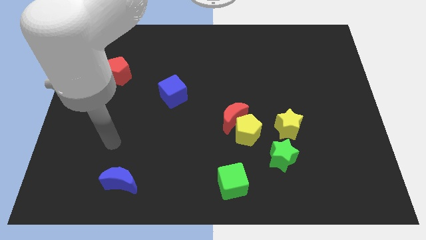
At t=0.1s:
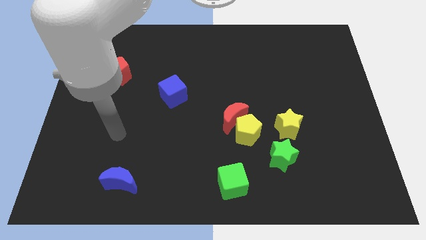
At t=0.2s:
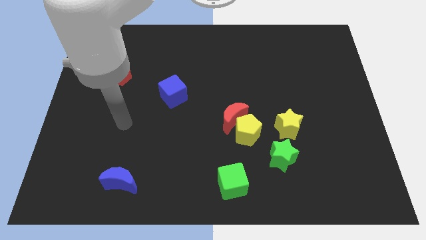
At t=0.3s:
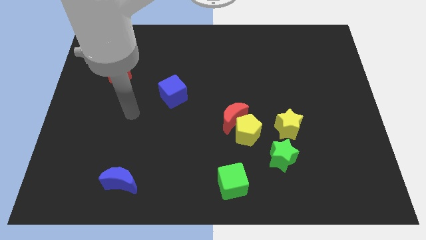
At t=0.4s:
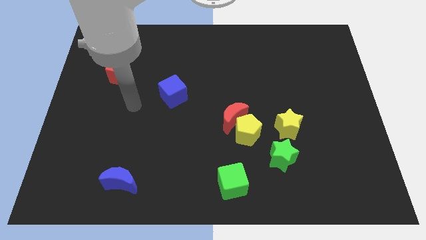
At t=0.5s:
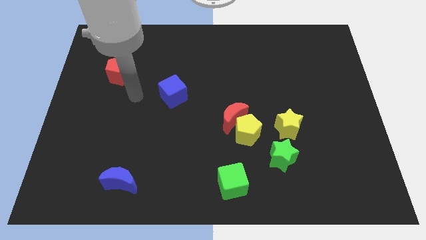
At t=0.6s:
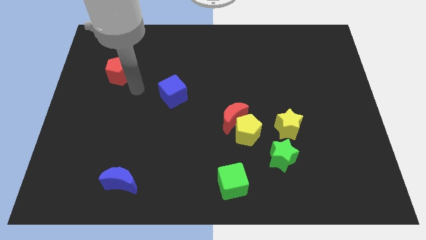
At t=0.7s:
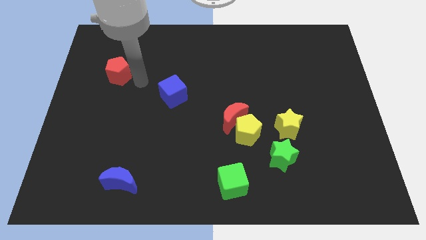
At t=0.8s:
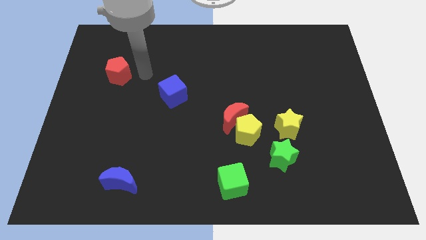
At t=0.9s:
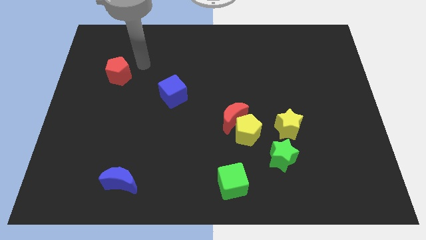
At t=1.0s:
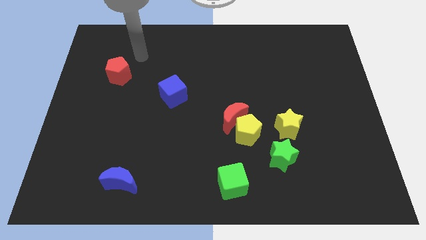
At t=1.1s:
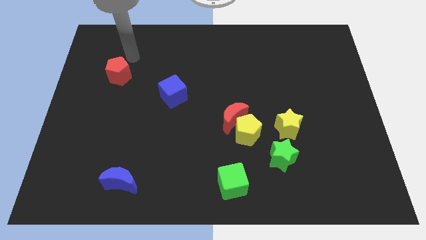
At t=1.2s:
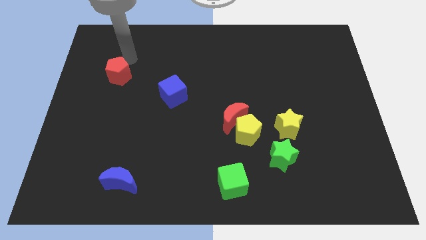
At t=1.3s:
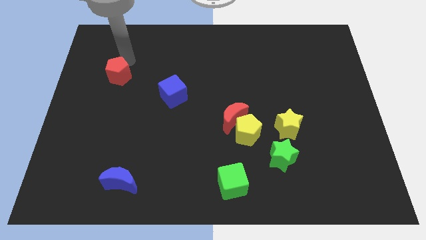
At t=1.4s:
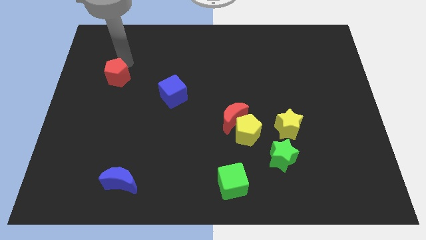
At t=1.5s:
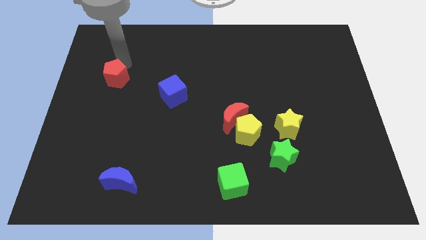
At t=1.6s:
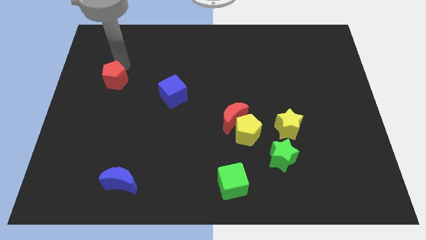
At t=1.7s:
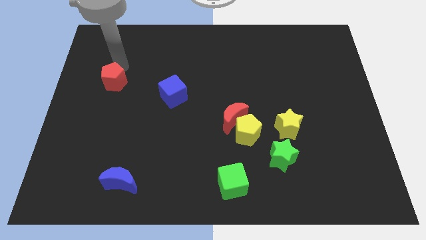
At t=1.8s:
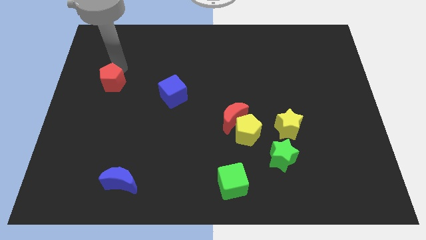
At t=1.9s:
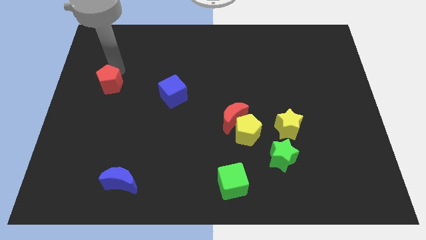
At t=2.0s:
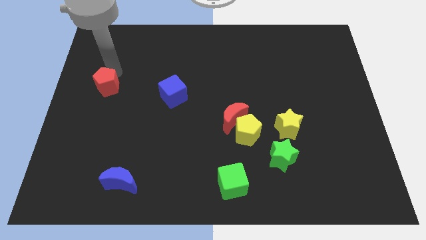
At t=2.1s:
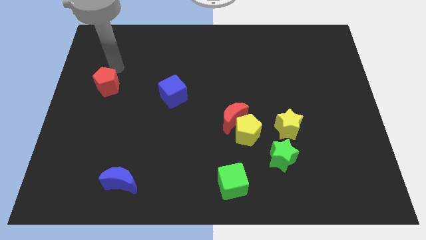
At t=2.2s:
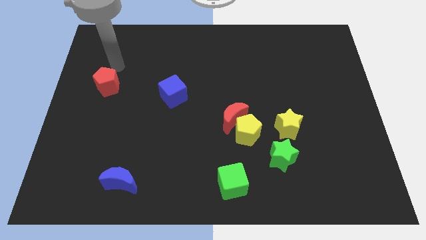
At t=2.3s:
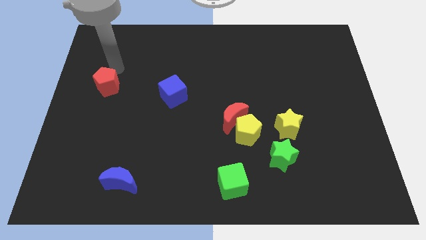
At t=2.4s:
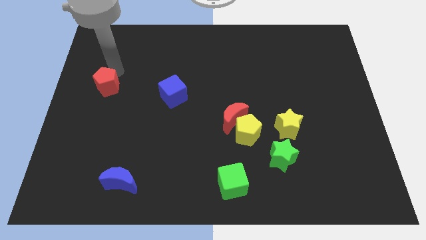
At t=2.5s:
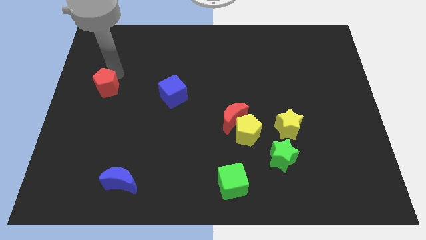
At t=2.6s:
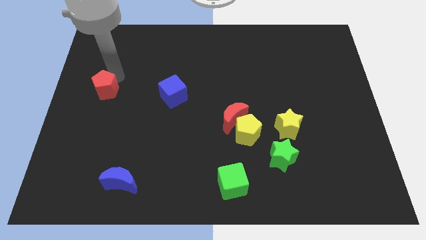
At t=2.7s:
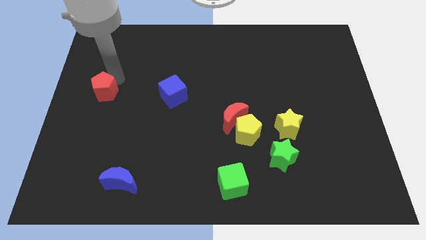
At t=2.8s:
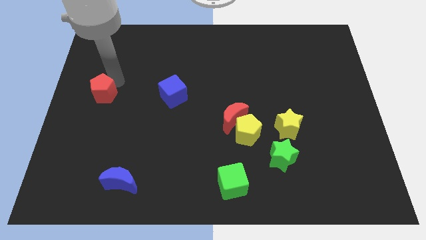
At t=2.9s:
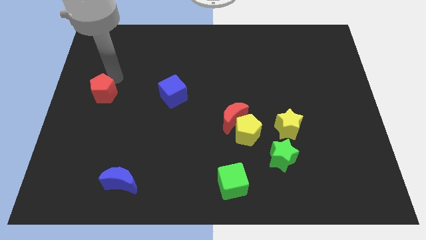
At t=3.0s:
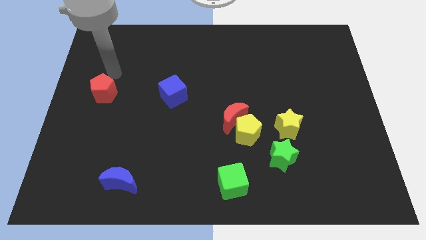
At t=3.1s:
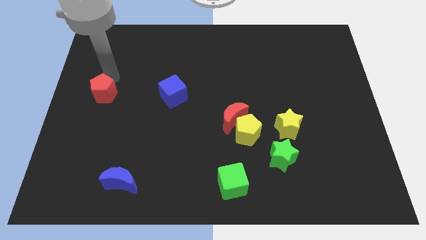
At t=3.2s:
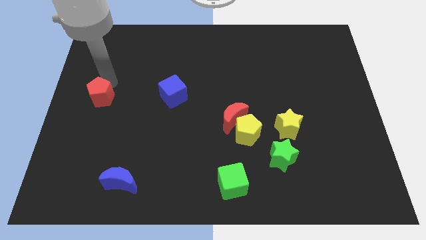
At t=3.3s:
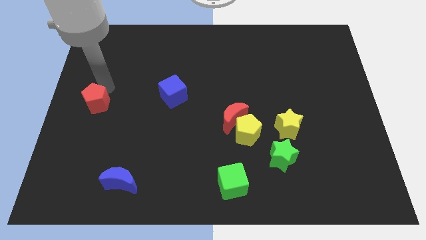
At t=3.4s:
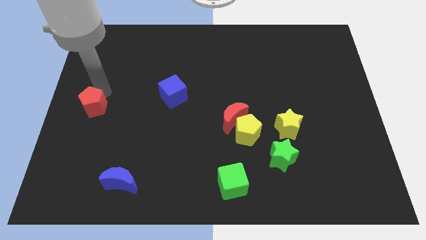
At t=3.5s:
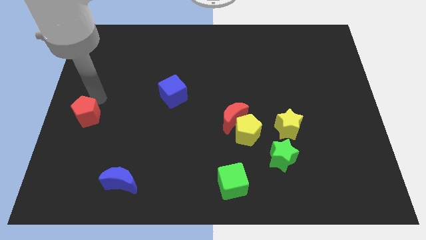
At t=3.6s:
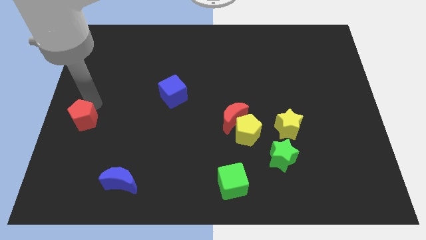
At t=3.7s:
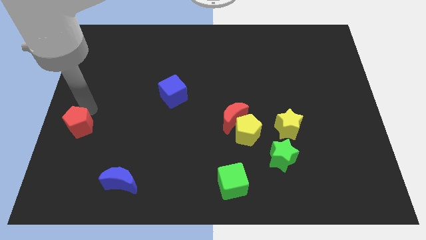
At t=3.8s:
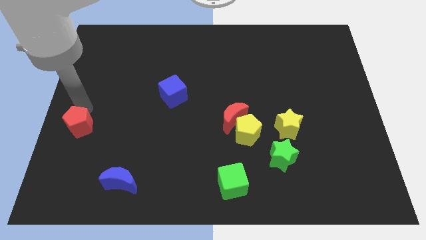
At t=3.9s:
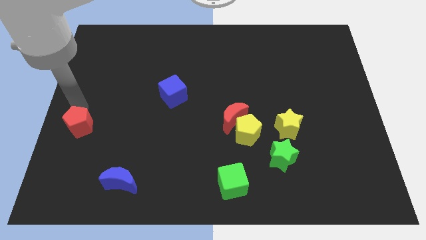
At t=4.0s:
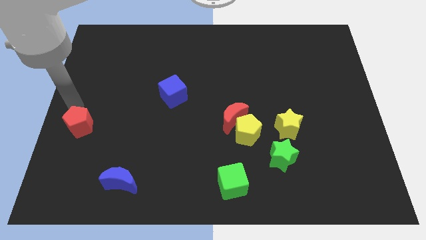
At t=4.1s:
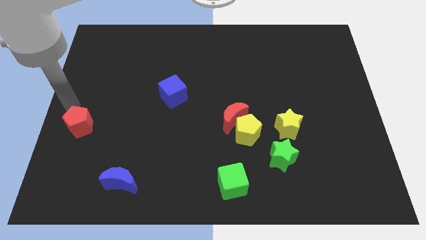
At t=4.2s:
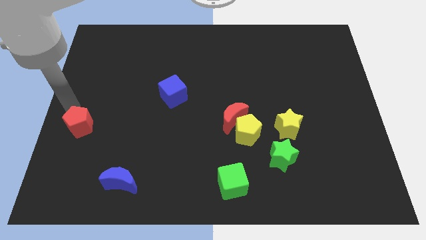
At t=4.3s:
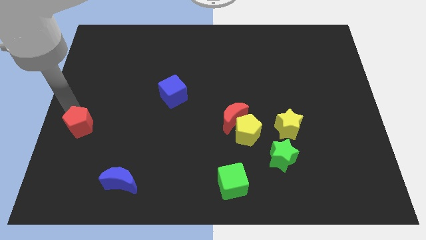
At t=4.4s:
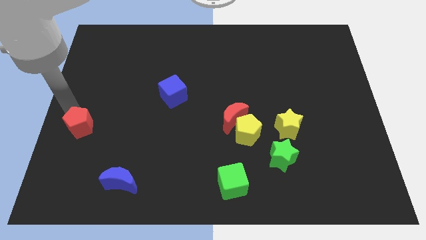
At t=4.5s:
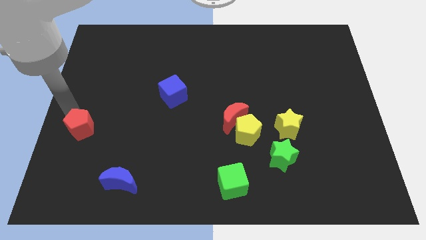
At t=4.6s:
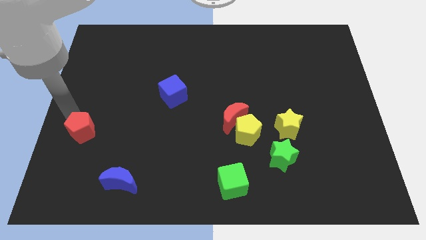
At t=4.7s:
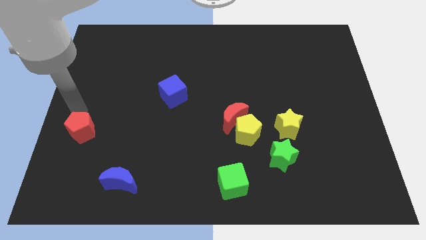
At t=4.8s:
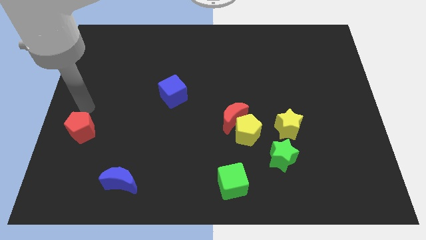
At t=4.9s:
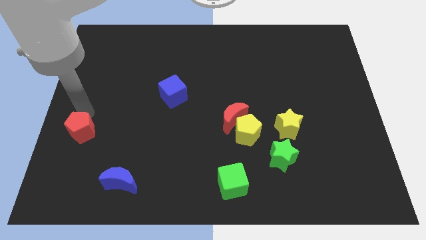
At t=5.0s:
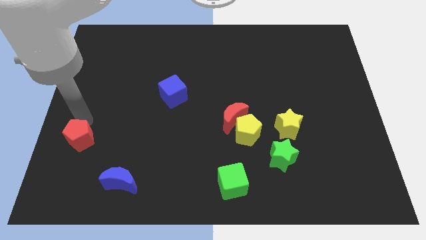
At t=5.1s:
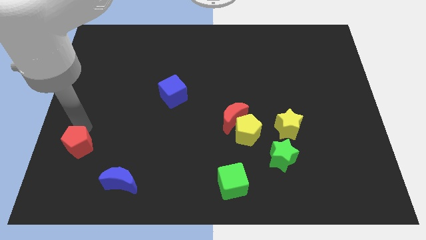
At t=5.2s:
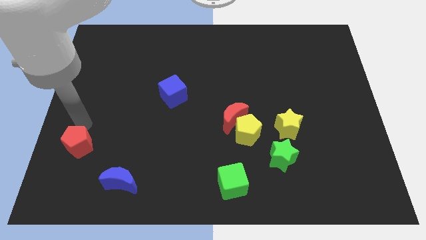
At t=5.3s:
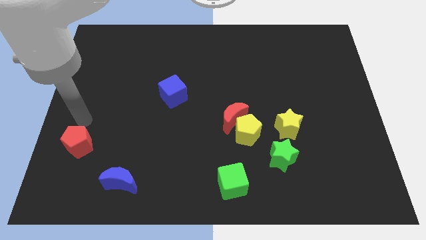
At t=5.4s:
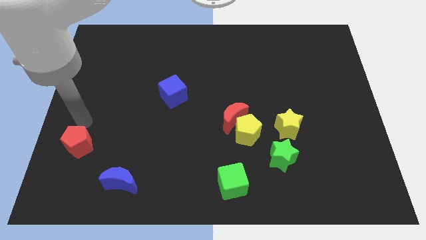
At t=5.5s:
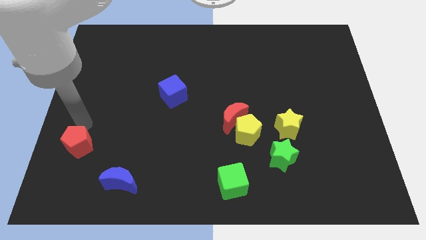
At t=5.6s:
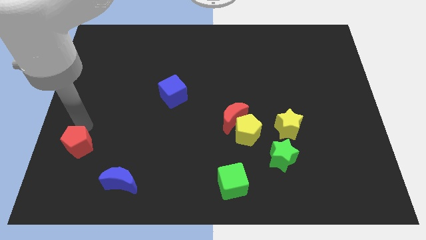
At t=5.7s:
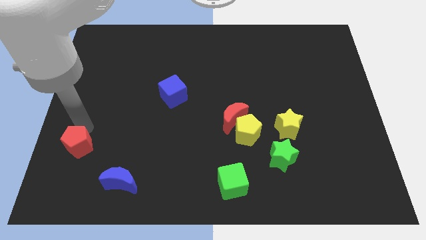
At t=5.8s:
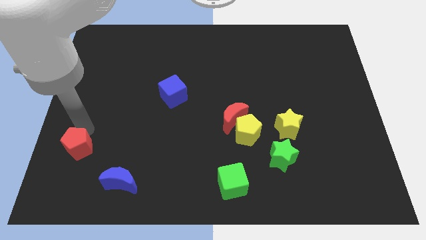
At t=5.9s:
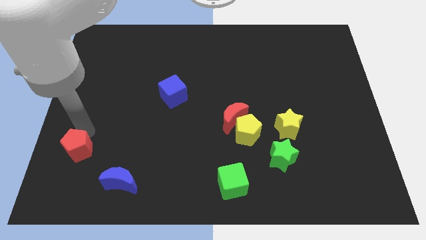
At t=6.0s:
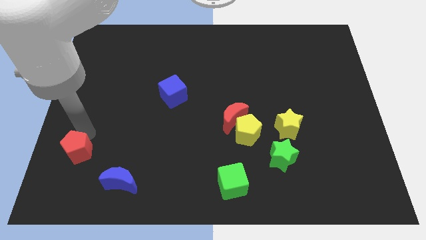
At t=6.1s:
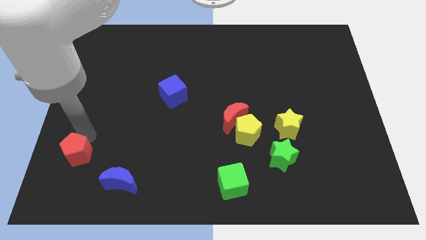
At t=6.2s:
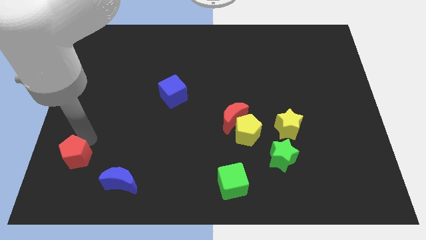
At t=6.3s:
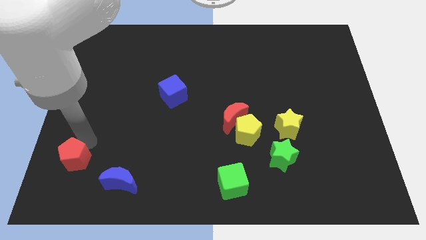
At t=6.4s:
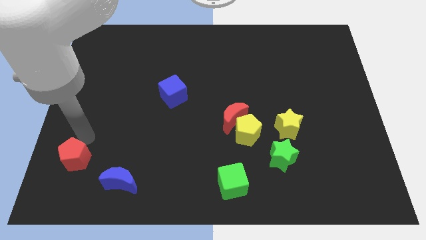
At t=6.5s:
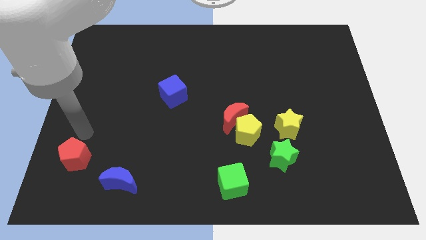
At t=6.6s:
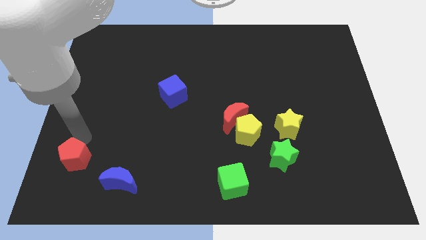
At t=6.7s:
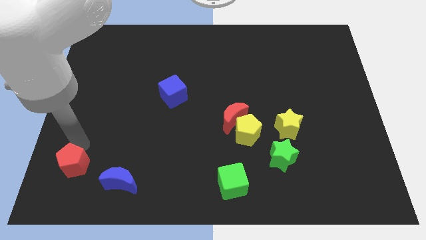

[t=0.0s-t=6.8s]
slide the red pentagon just left of the blue moon

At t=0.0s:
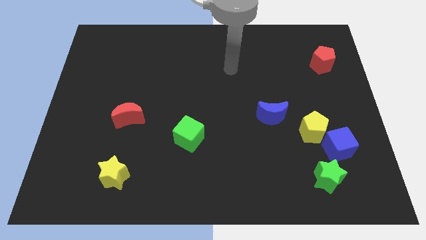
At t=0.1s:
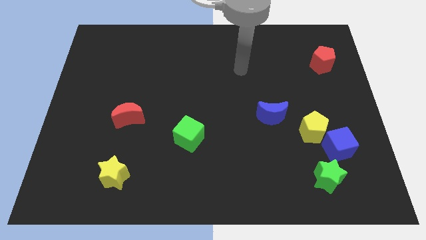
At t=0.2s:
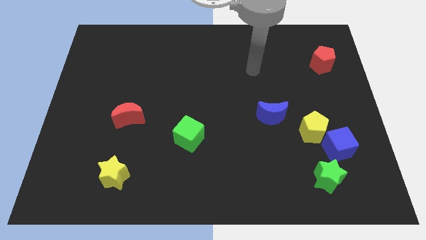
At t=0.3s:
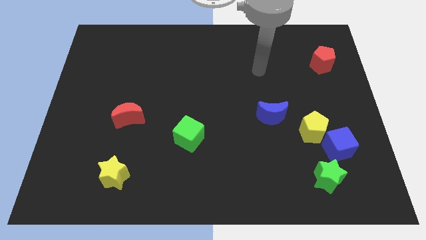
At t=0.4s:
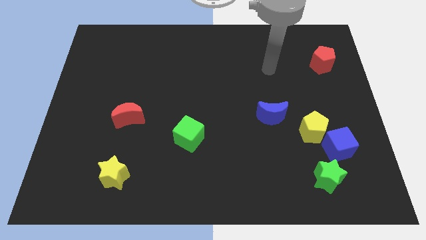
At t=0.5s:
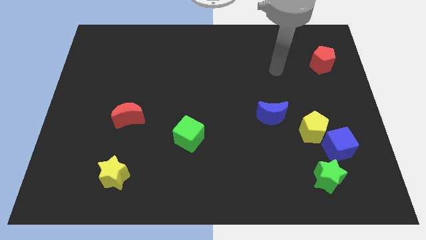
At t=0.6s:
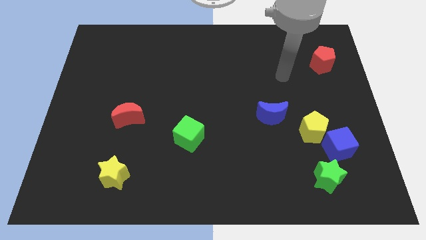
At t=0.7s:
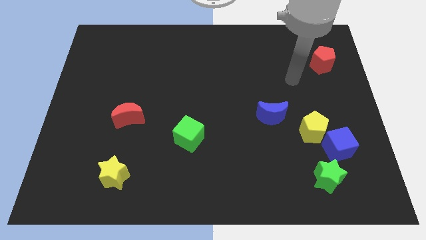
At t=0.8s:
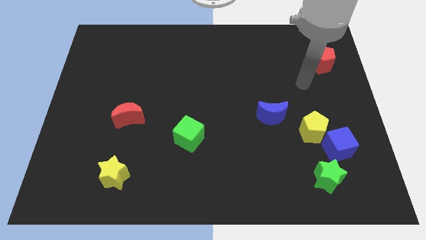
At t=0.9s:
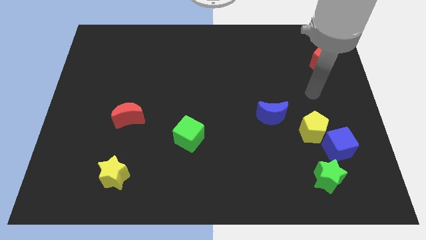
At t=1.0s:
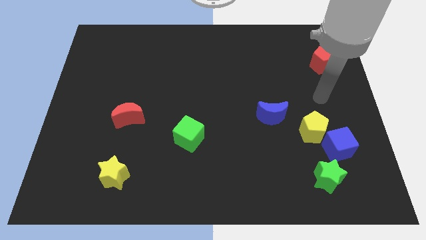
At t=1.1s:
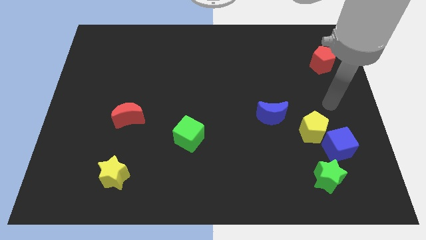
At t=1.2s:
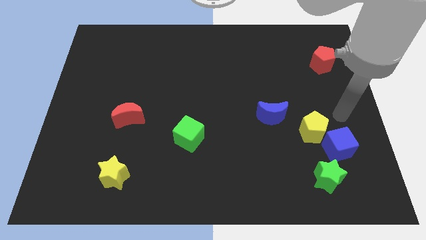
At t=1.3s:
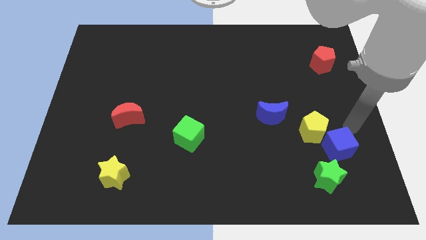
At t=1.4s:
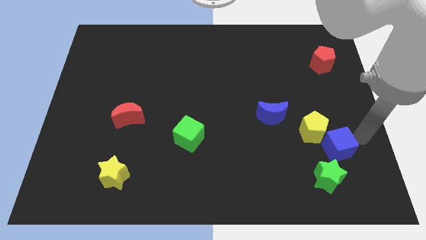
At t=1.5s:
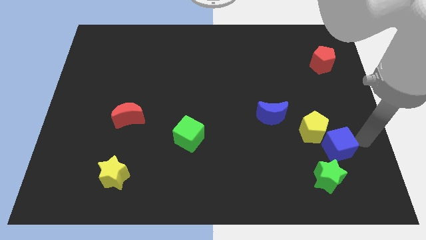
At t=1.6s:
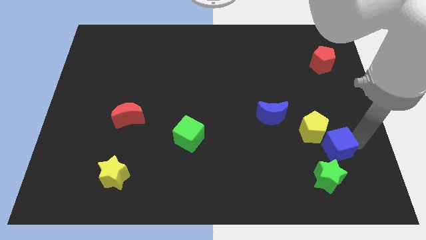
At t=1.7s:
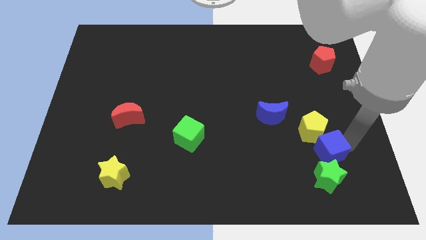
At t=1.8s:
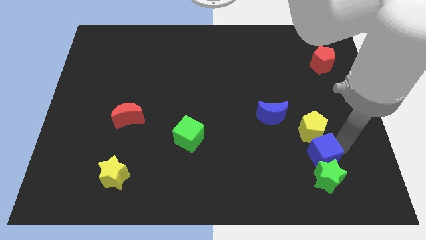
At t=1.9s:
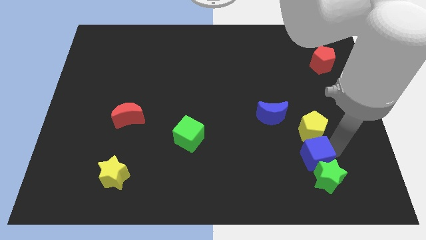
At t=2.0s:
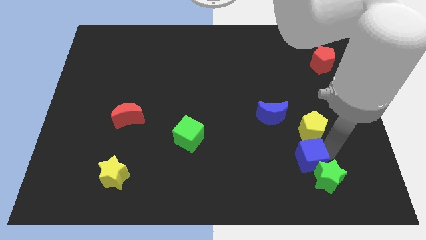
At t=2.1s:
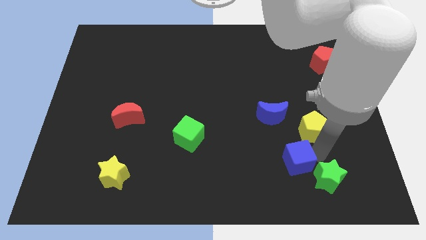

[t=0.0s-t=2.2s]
put the blue cube just left of the green star
